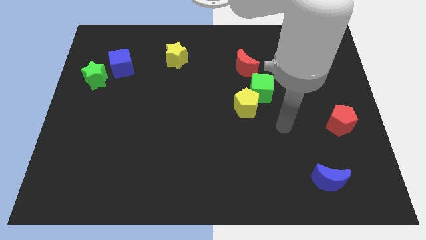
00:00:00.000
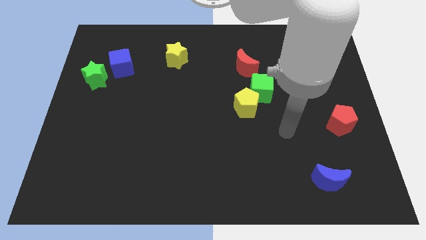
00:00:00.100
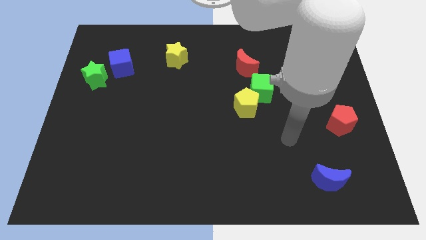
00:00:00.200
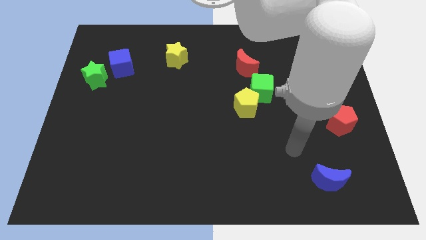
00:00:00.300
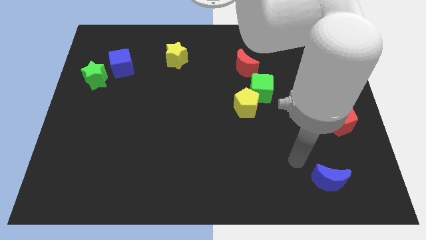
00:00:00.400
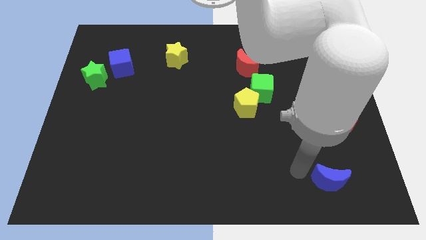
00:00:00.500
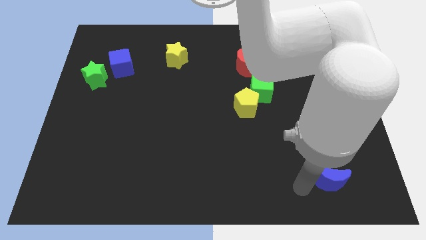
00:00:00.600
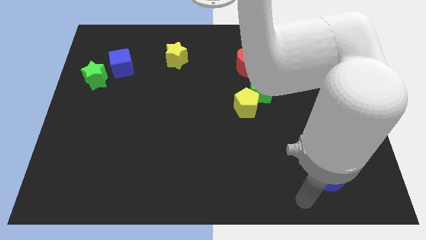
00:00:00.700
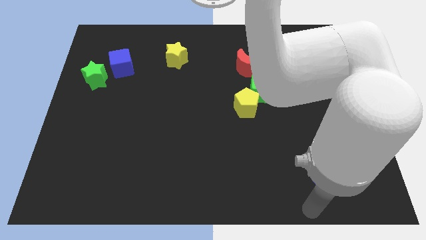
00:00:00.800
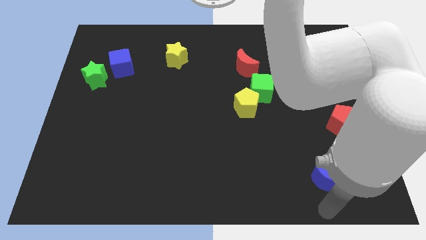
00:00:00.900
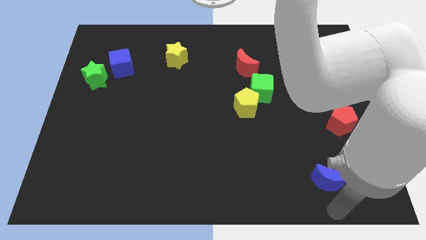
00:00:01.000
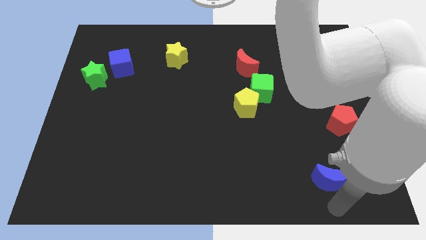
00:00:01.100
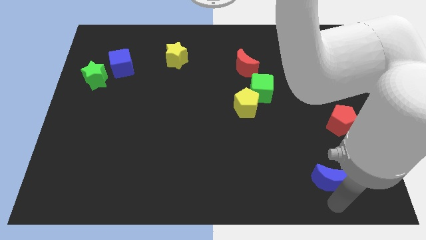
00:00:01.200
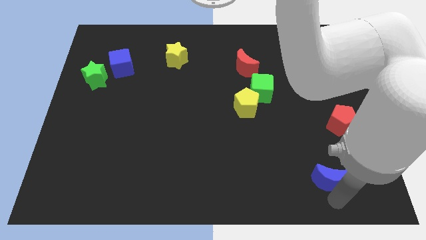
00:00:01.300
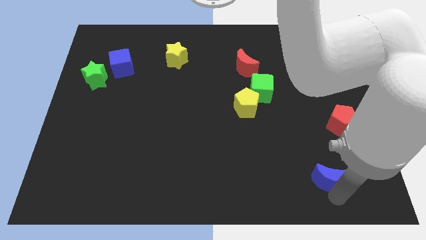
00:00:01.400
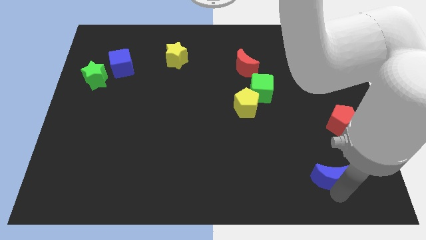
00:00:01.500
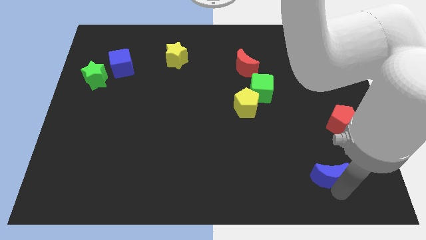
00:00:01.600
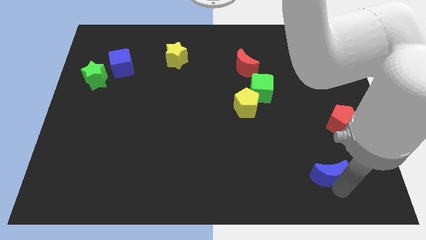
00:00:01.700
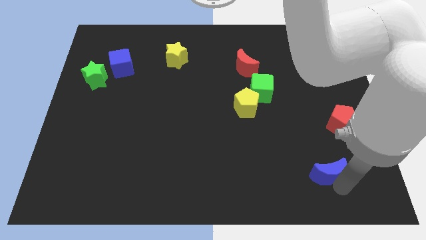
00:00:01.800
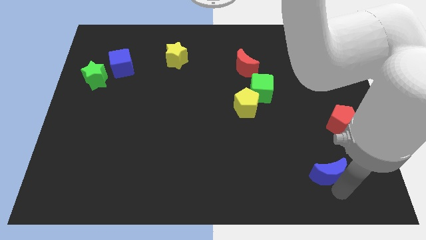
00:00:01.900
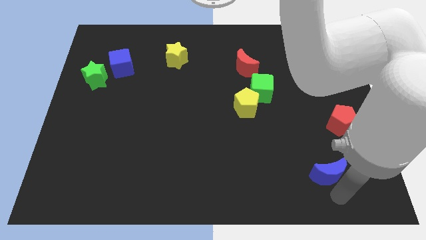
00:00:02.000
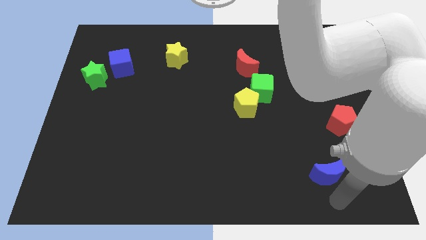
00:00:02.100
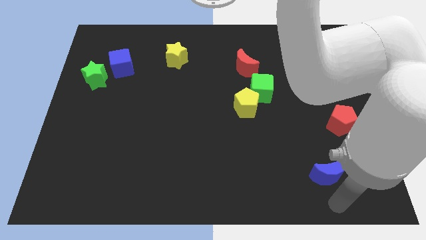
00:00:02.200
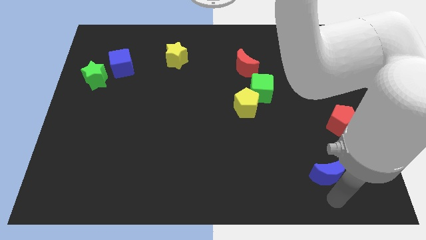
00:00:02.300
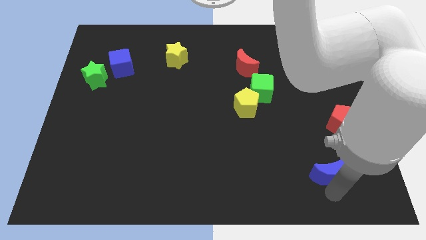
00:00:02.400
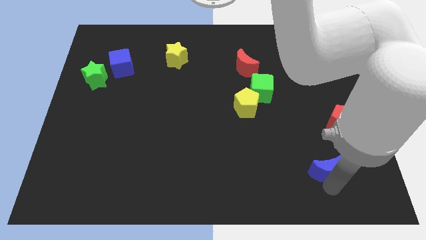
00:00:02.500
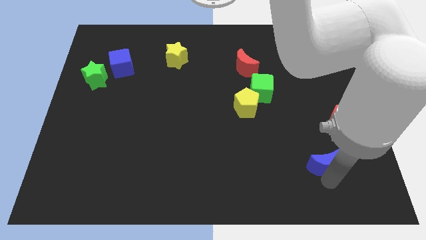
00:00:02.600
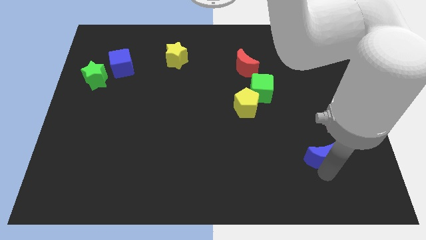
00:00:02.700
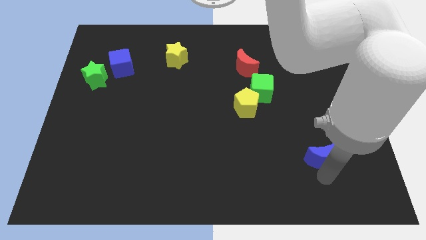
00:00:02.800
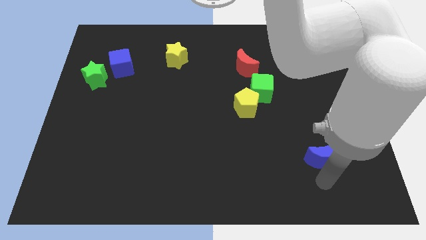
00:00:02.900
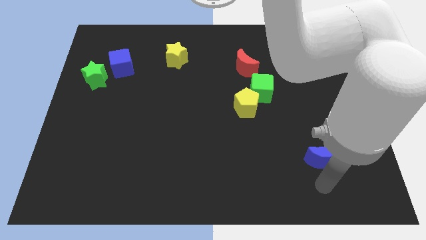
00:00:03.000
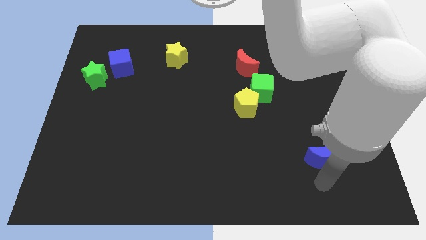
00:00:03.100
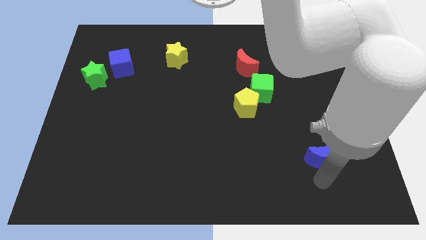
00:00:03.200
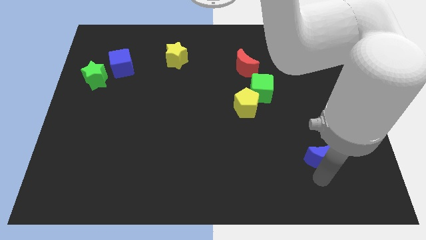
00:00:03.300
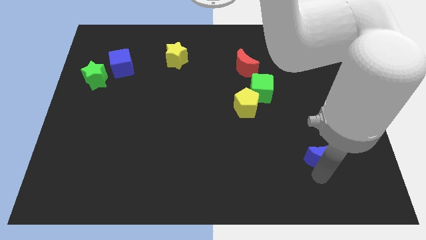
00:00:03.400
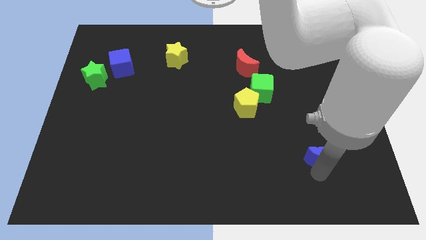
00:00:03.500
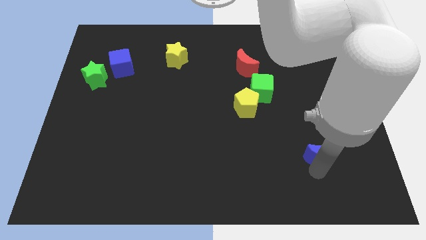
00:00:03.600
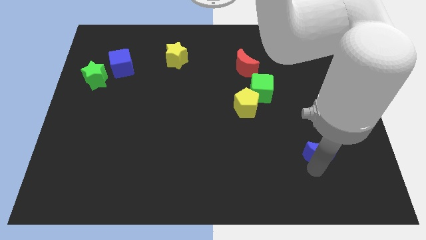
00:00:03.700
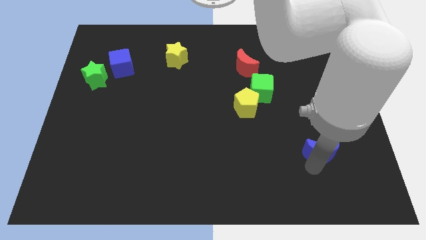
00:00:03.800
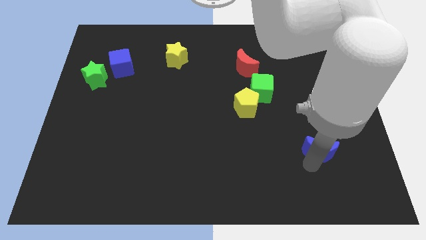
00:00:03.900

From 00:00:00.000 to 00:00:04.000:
slide the blue moon upwards a little bit

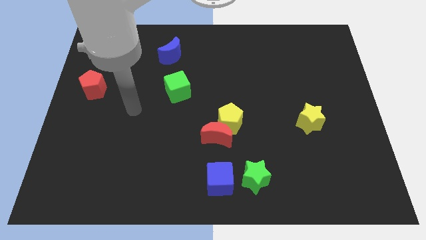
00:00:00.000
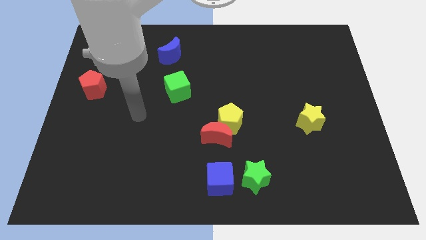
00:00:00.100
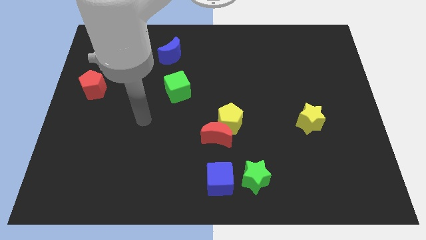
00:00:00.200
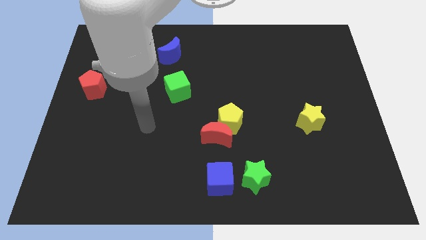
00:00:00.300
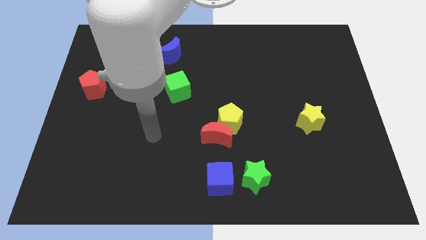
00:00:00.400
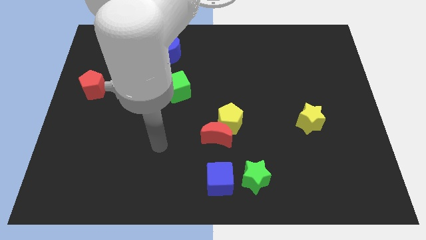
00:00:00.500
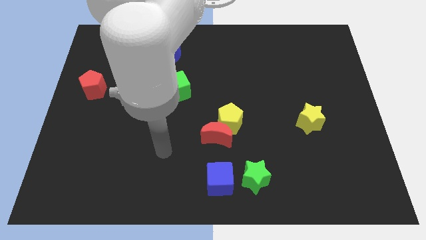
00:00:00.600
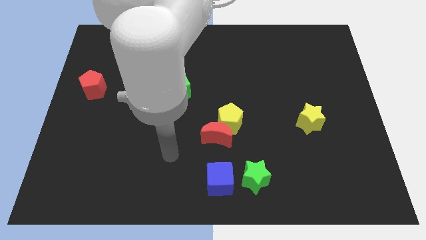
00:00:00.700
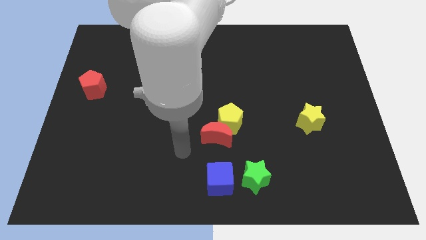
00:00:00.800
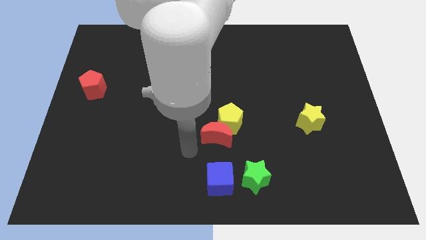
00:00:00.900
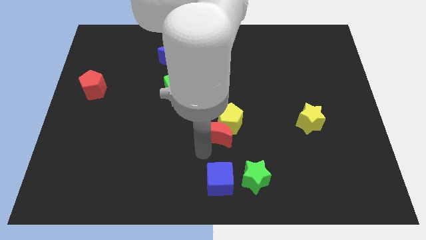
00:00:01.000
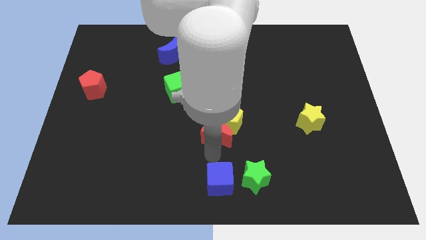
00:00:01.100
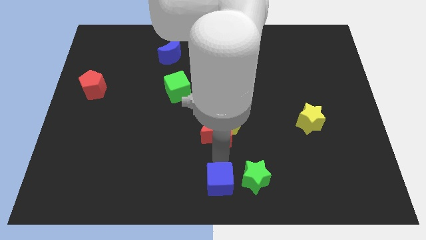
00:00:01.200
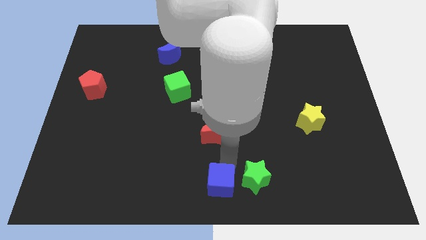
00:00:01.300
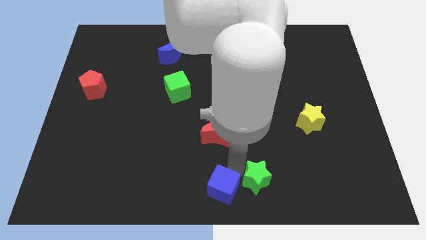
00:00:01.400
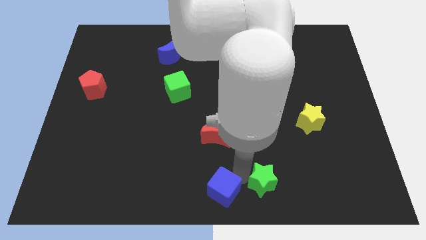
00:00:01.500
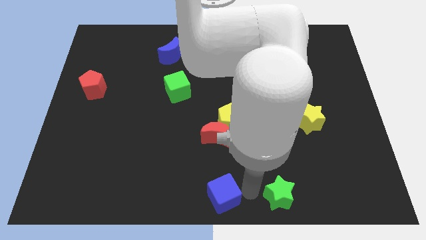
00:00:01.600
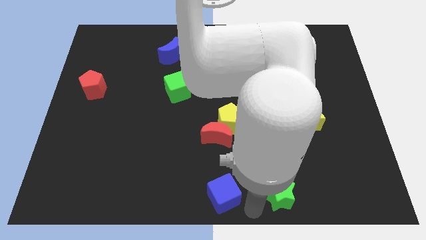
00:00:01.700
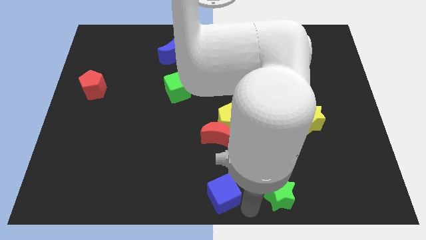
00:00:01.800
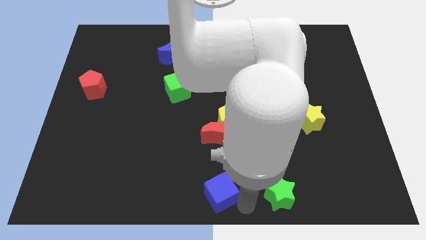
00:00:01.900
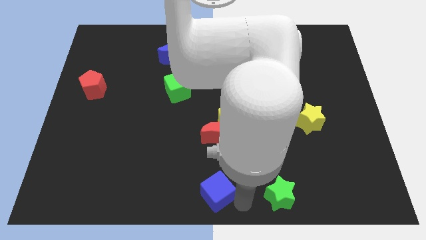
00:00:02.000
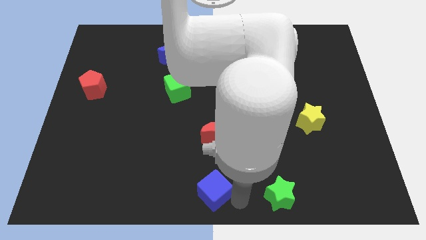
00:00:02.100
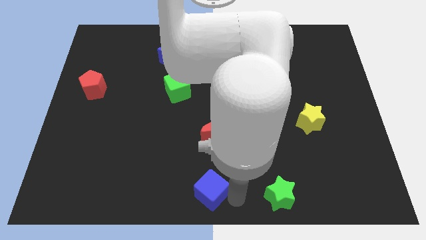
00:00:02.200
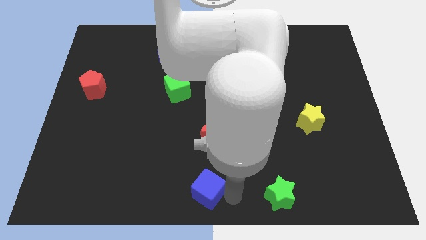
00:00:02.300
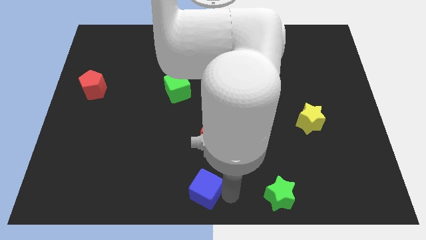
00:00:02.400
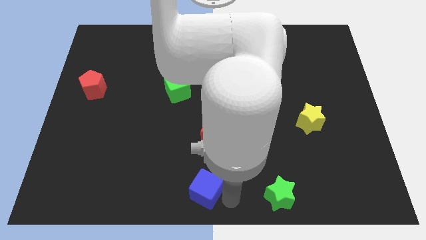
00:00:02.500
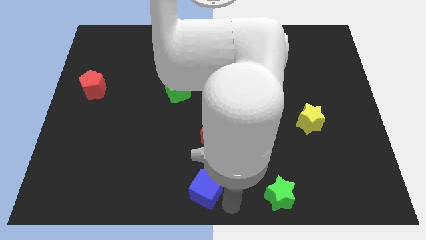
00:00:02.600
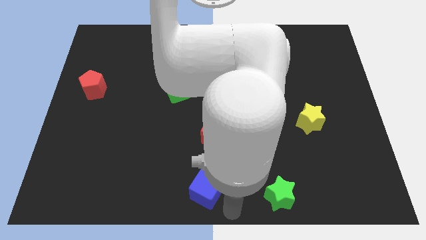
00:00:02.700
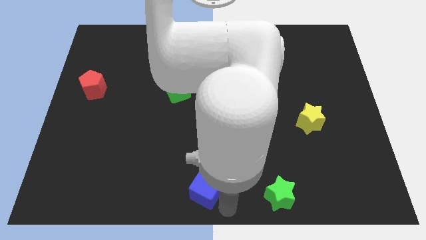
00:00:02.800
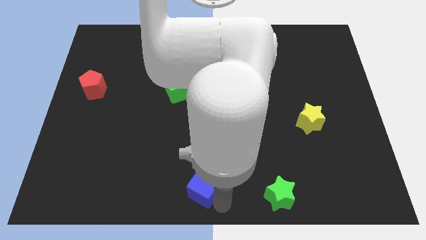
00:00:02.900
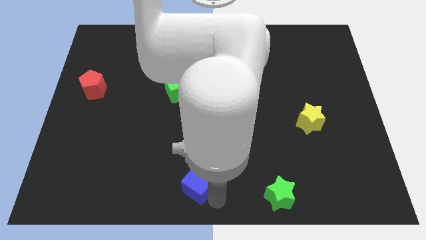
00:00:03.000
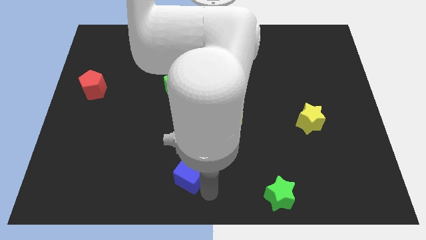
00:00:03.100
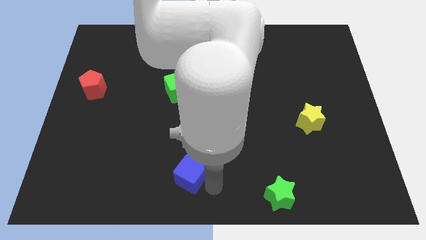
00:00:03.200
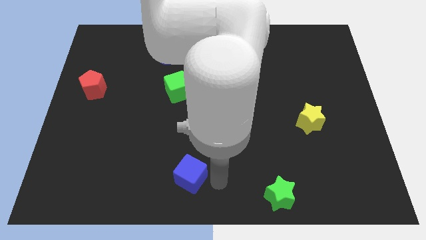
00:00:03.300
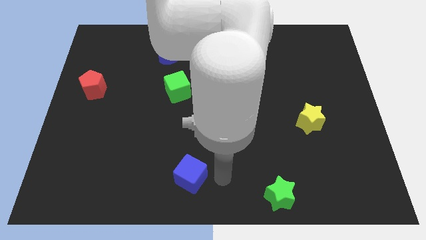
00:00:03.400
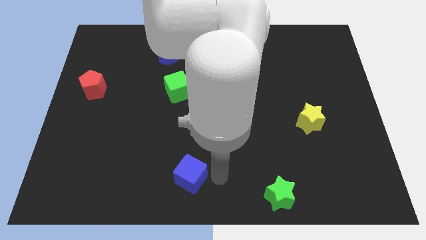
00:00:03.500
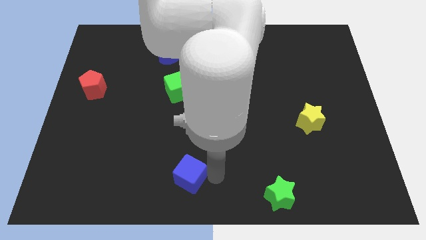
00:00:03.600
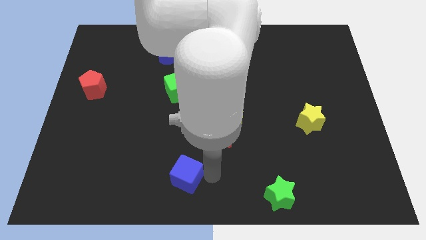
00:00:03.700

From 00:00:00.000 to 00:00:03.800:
slightly slide the blue cube left
